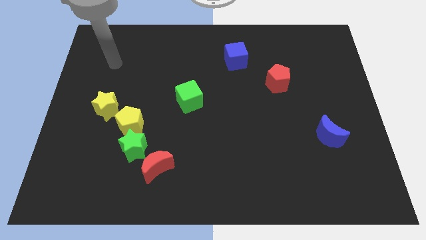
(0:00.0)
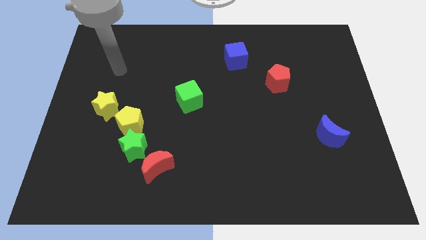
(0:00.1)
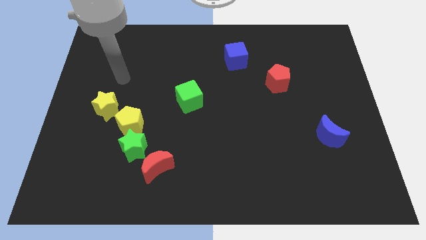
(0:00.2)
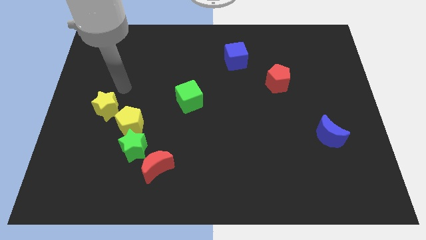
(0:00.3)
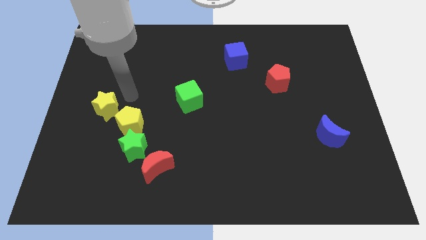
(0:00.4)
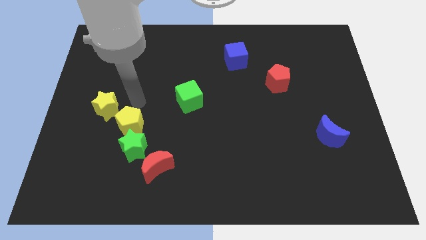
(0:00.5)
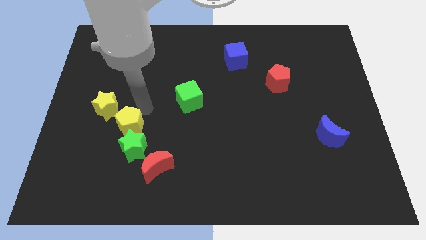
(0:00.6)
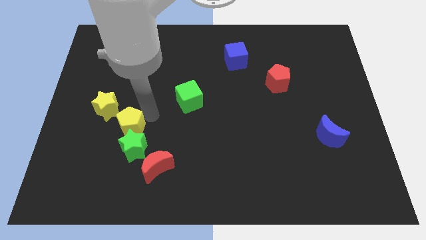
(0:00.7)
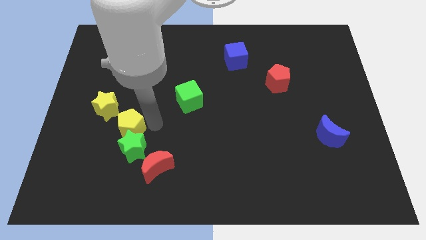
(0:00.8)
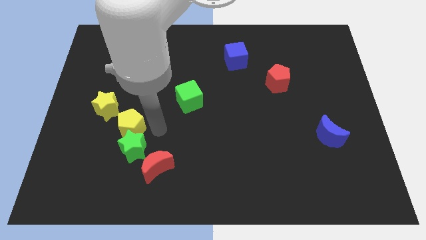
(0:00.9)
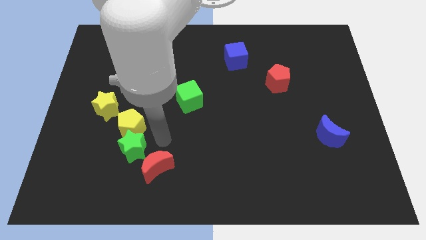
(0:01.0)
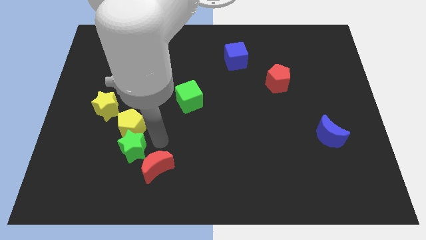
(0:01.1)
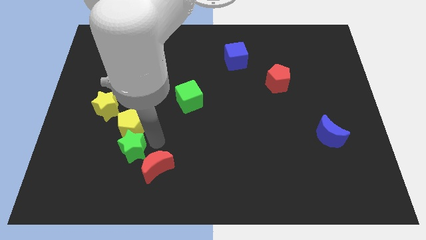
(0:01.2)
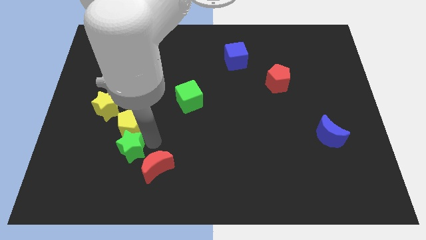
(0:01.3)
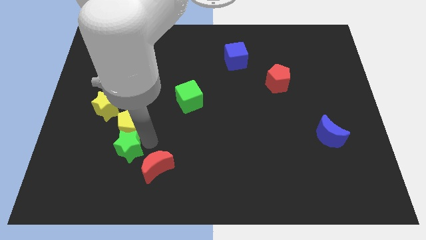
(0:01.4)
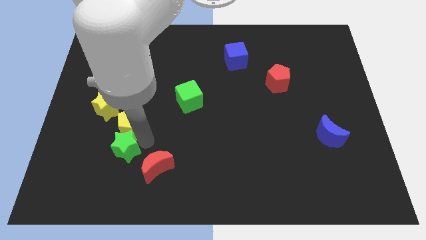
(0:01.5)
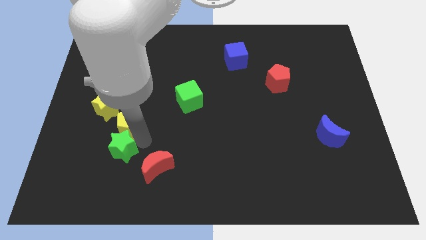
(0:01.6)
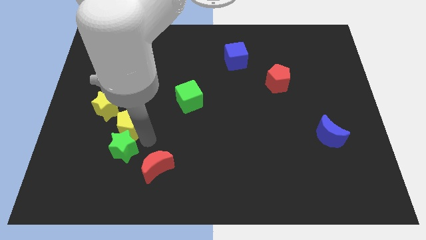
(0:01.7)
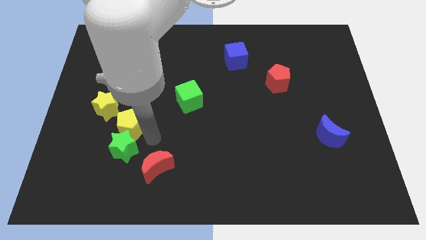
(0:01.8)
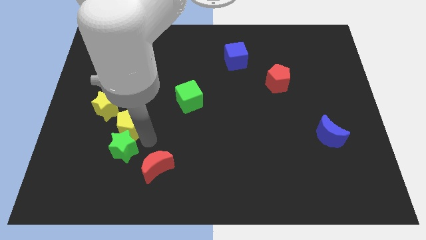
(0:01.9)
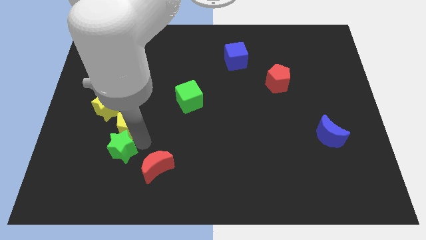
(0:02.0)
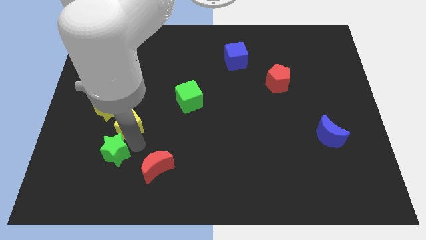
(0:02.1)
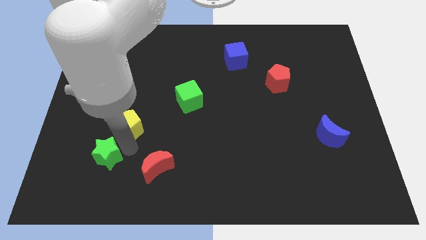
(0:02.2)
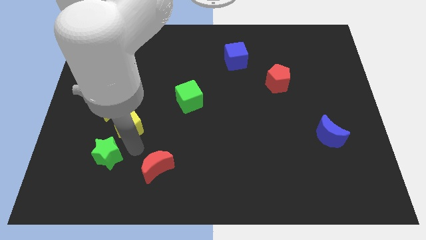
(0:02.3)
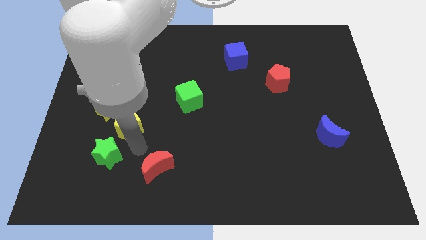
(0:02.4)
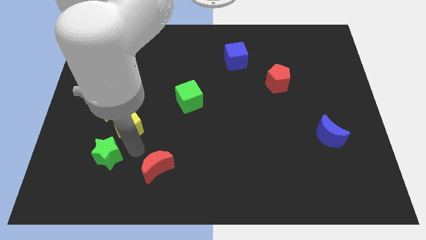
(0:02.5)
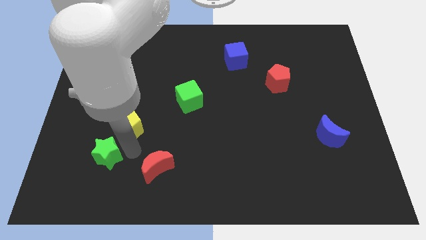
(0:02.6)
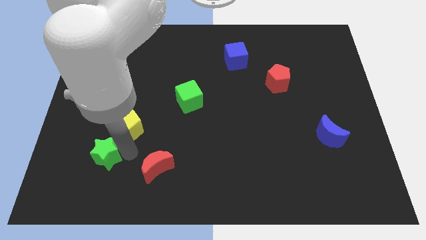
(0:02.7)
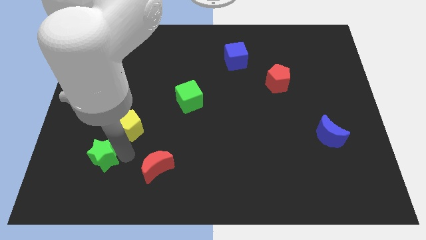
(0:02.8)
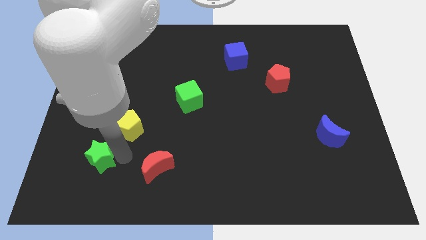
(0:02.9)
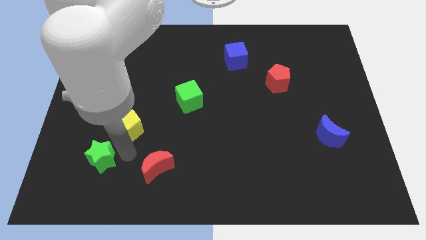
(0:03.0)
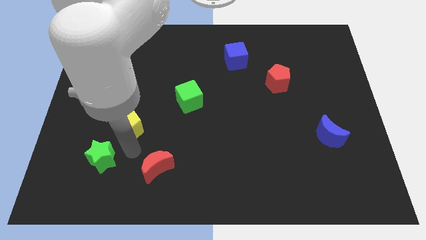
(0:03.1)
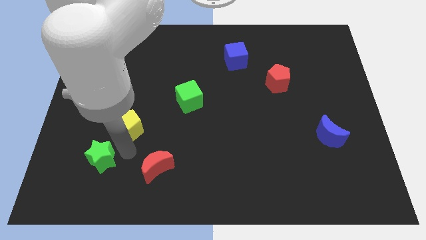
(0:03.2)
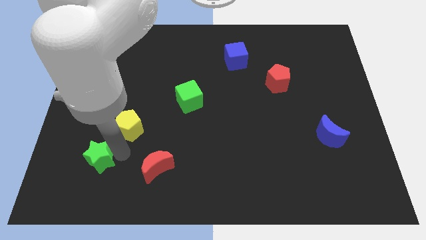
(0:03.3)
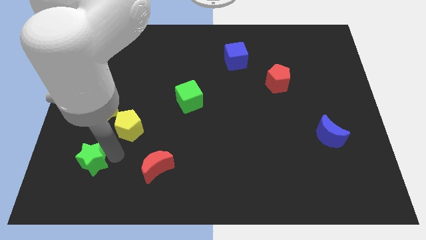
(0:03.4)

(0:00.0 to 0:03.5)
pull the green star apart from the yellow pentagon and red moon

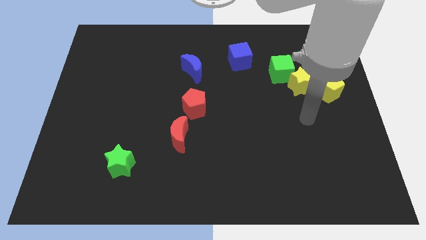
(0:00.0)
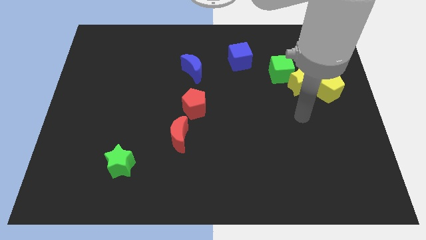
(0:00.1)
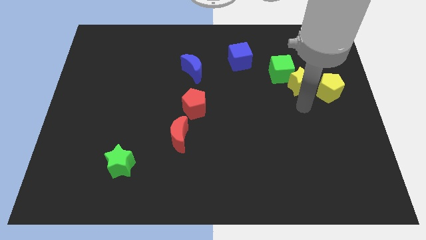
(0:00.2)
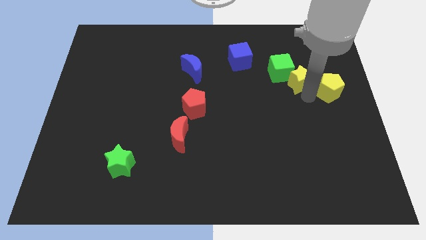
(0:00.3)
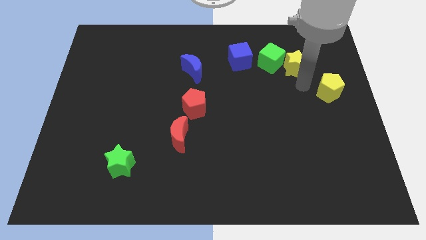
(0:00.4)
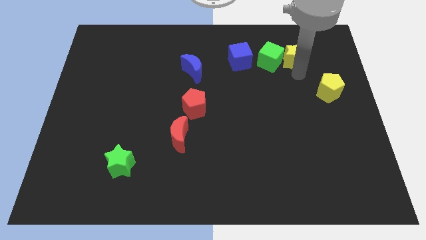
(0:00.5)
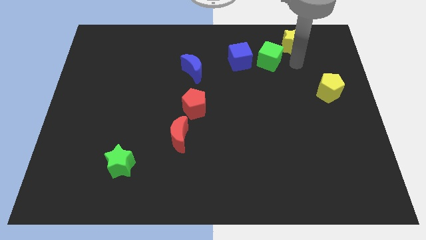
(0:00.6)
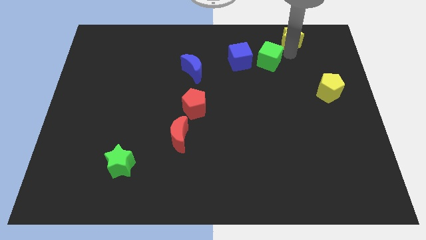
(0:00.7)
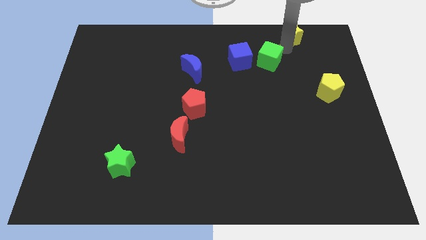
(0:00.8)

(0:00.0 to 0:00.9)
pull the green cube apart from the yellow star

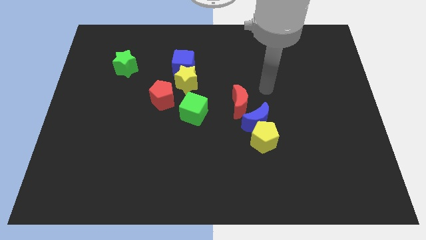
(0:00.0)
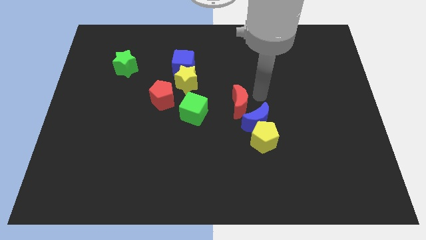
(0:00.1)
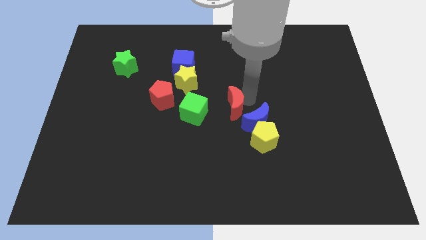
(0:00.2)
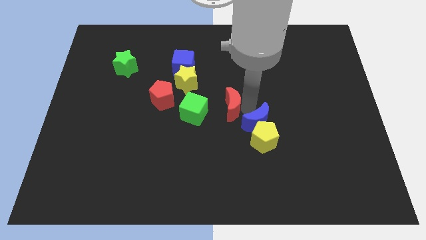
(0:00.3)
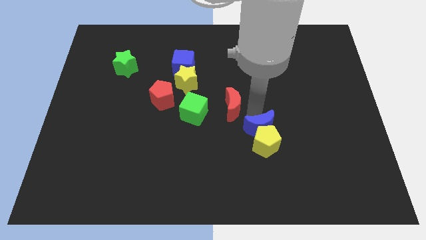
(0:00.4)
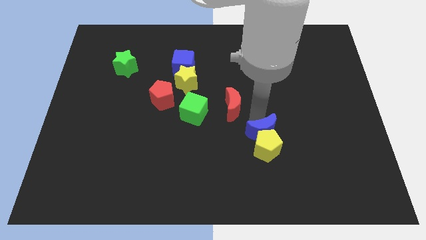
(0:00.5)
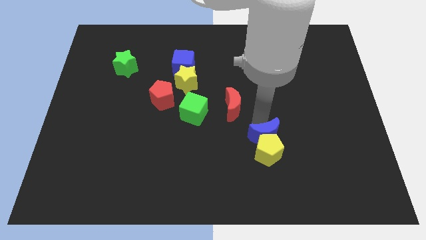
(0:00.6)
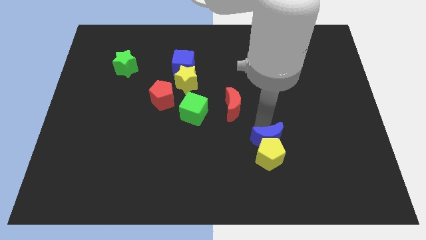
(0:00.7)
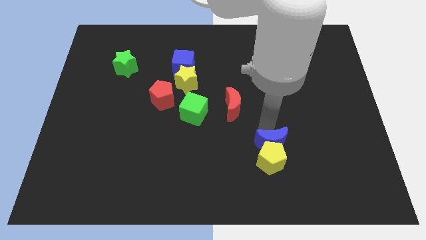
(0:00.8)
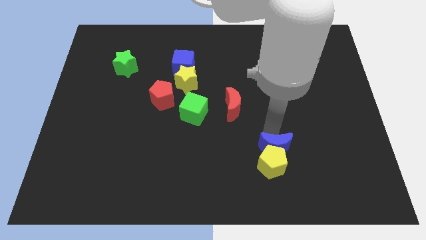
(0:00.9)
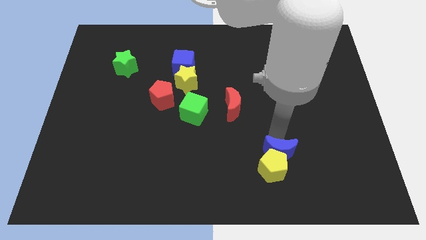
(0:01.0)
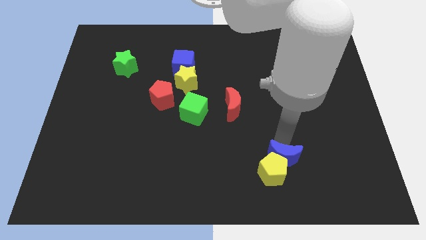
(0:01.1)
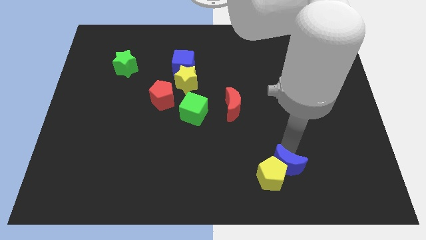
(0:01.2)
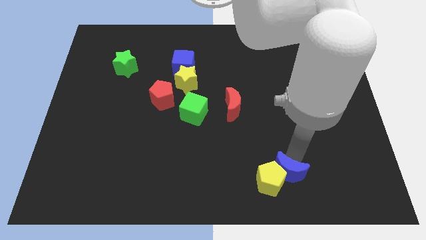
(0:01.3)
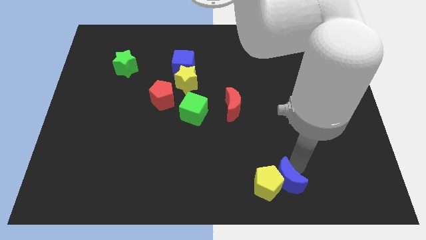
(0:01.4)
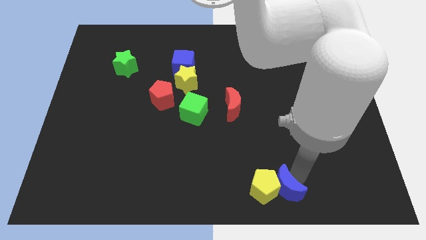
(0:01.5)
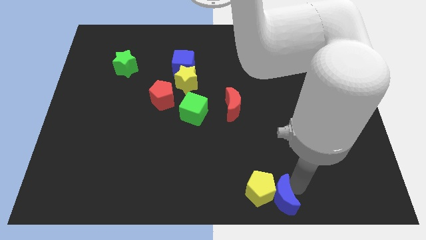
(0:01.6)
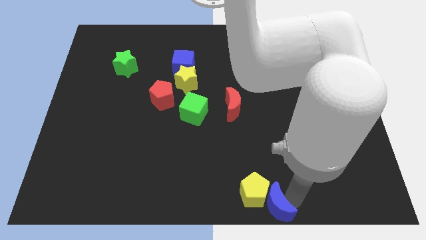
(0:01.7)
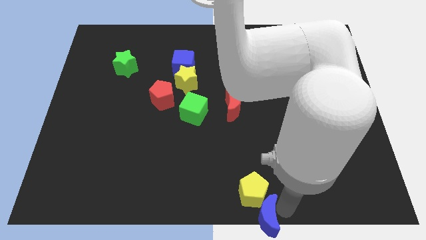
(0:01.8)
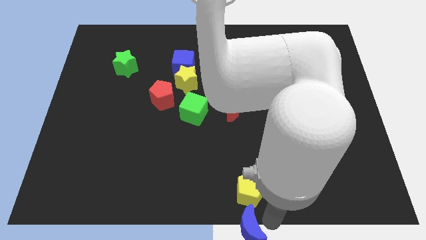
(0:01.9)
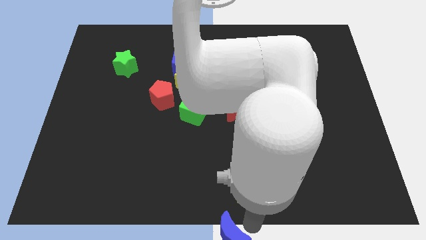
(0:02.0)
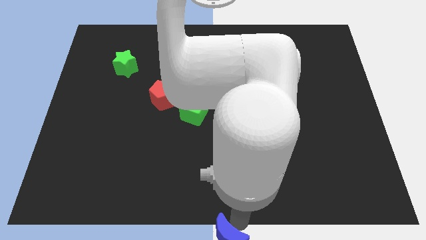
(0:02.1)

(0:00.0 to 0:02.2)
pull the yellow pentagon apart from the blue moon

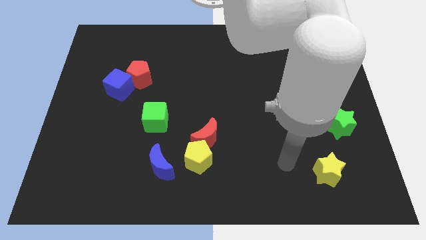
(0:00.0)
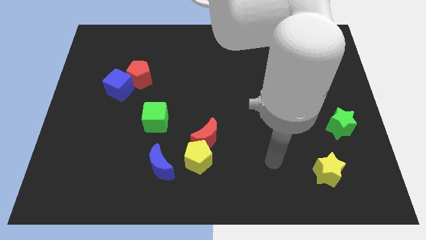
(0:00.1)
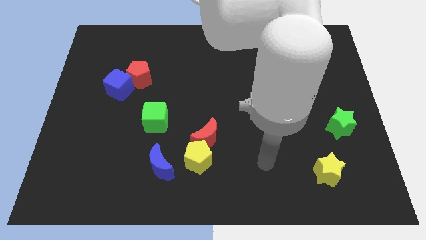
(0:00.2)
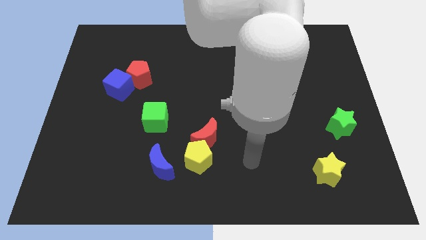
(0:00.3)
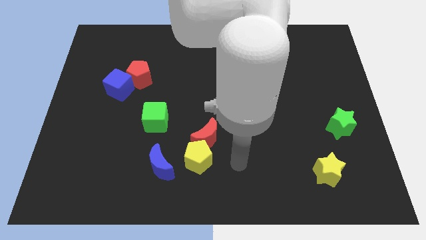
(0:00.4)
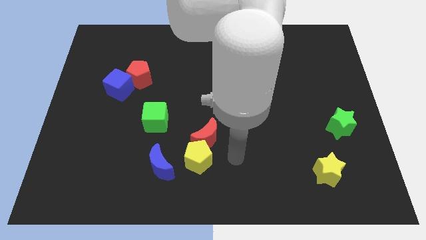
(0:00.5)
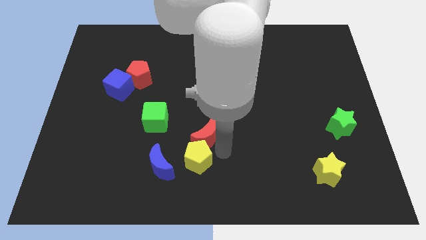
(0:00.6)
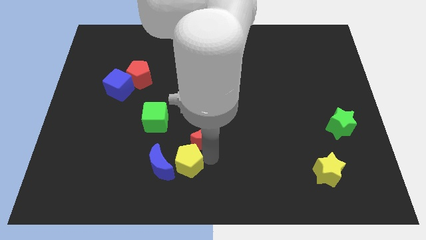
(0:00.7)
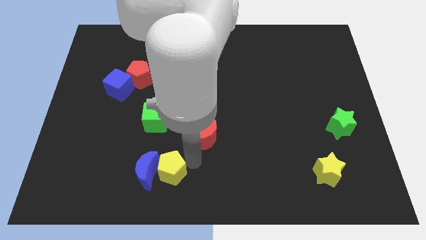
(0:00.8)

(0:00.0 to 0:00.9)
move the red moon away from the yellow pentagon

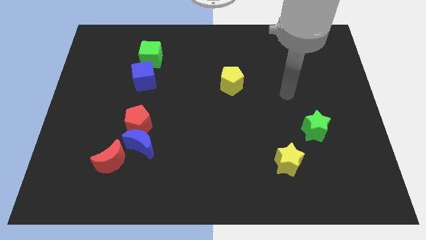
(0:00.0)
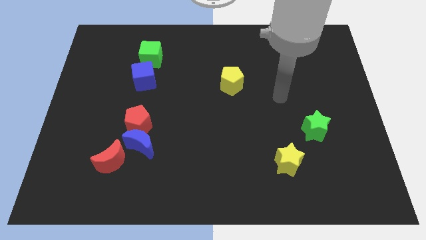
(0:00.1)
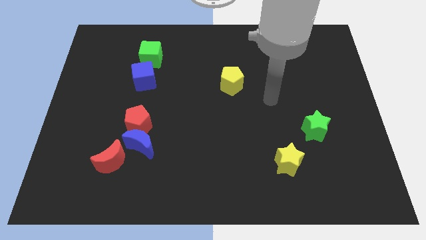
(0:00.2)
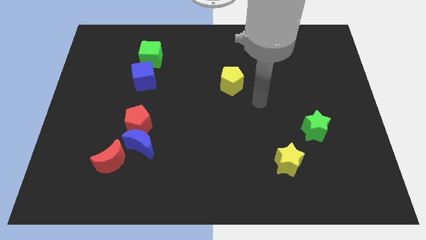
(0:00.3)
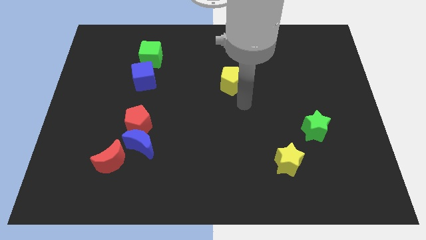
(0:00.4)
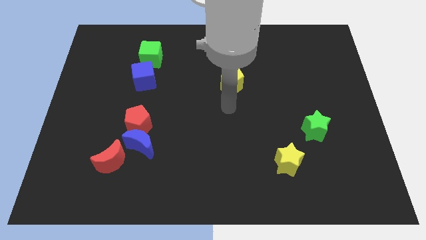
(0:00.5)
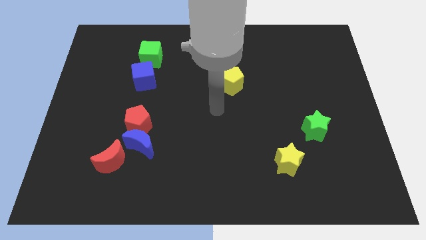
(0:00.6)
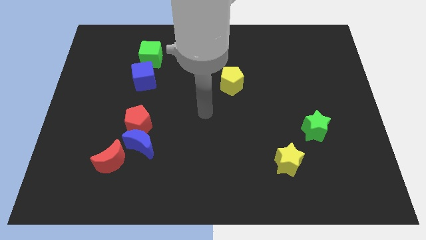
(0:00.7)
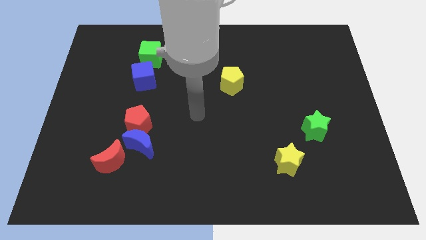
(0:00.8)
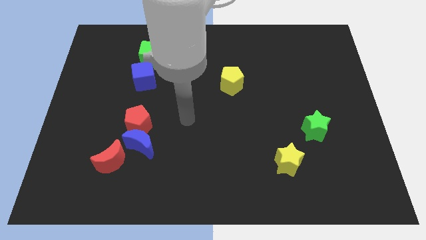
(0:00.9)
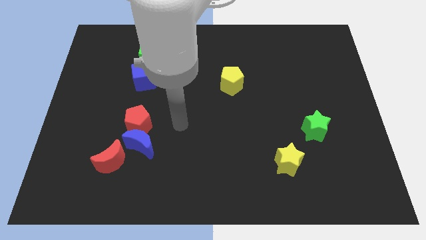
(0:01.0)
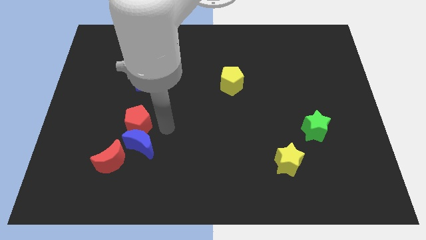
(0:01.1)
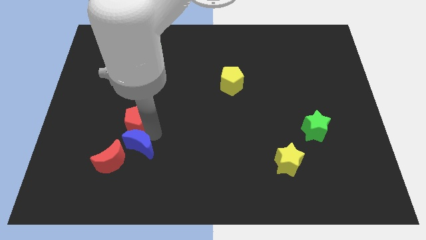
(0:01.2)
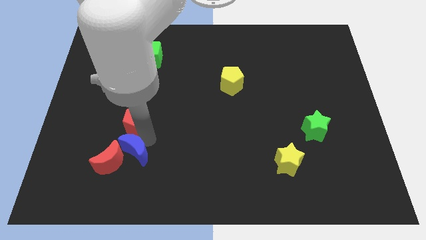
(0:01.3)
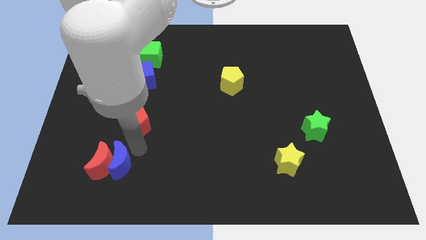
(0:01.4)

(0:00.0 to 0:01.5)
separate the red pentagon from the blue moon

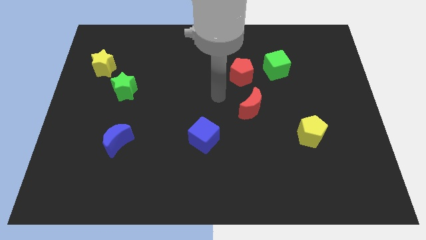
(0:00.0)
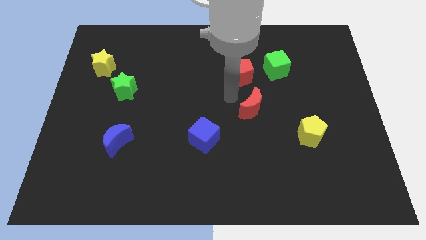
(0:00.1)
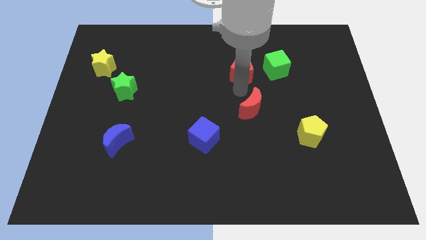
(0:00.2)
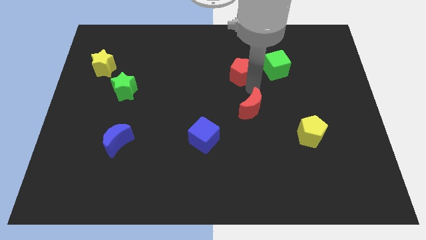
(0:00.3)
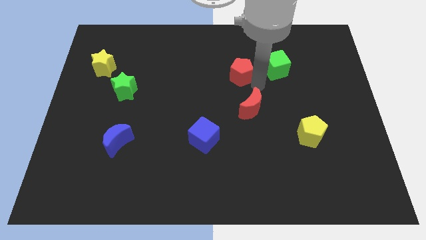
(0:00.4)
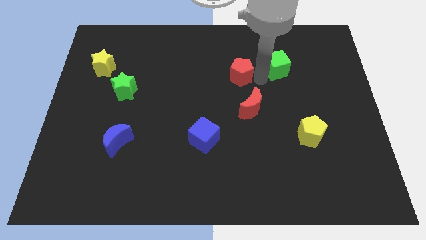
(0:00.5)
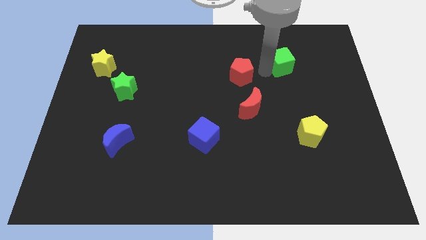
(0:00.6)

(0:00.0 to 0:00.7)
separate the red pentagon from the green cube
